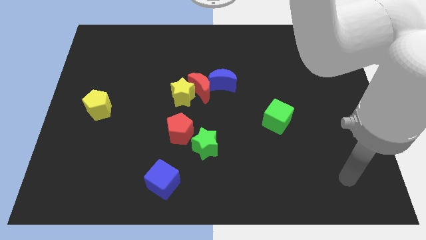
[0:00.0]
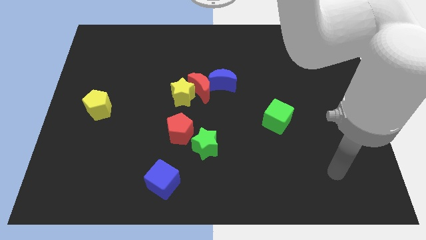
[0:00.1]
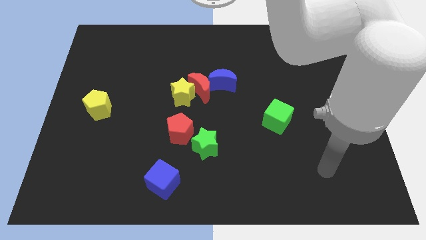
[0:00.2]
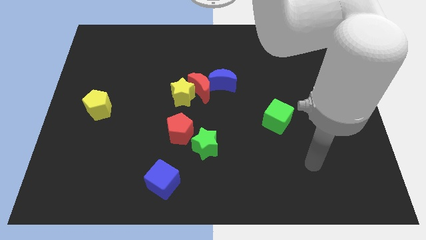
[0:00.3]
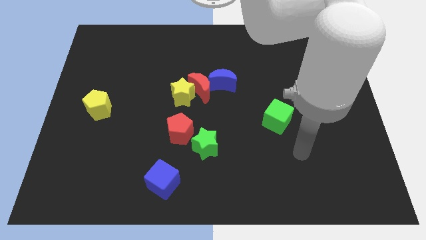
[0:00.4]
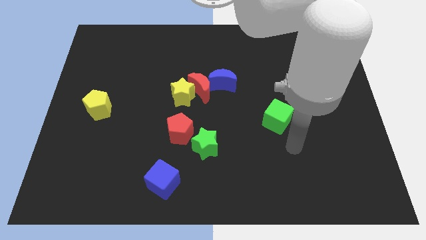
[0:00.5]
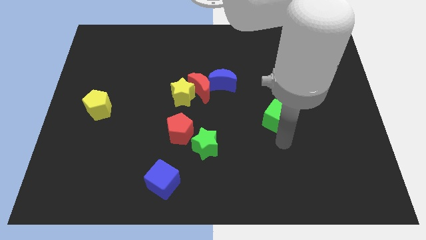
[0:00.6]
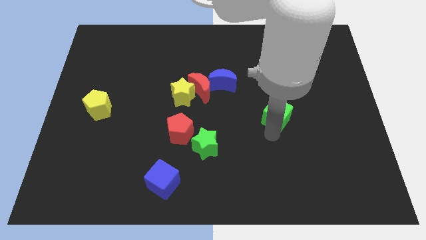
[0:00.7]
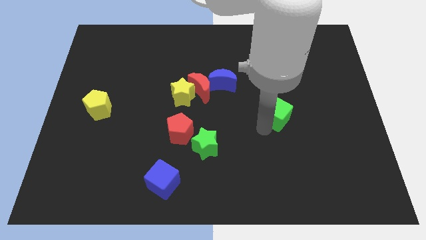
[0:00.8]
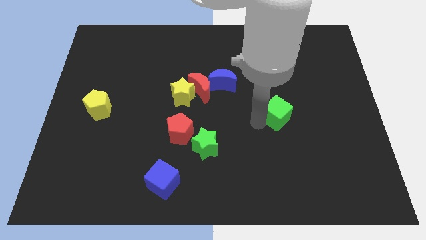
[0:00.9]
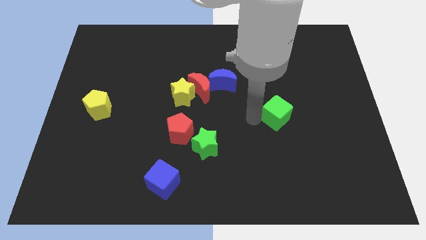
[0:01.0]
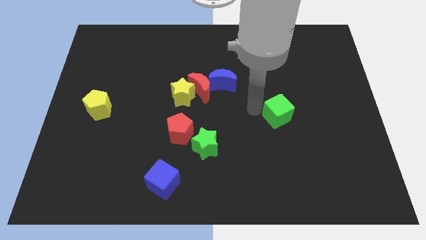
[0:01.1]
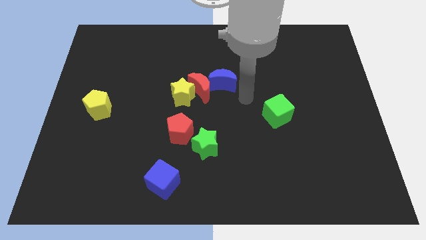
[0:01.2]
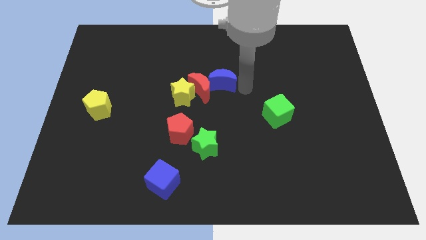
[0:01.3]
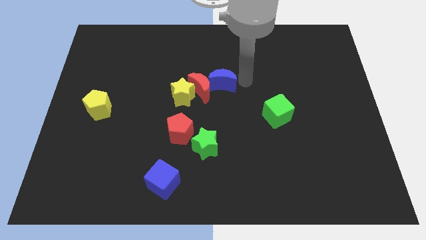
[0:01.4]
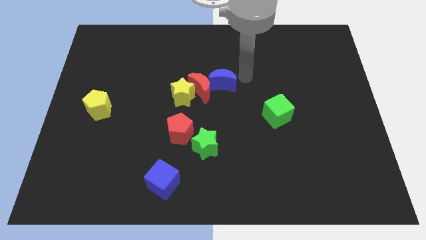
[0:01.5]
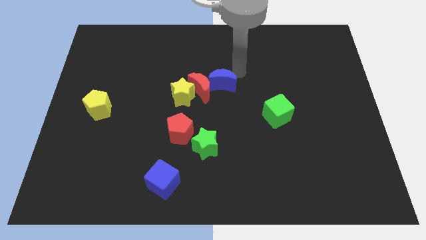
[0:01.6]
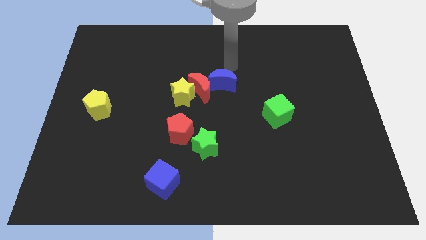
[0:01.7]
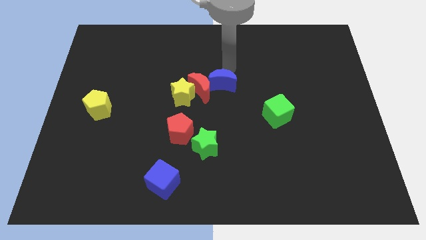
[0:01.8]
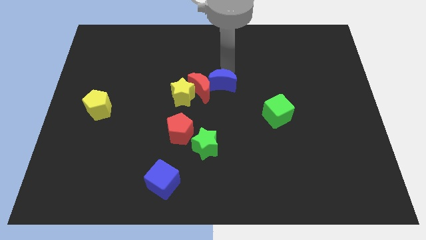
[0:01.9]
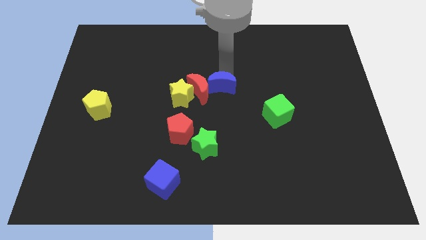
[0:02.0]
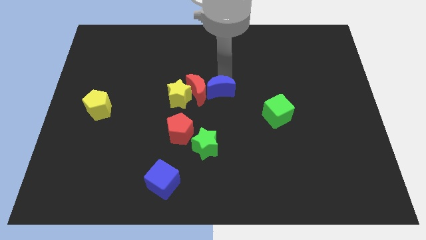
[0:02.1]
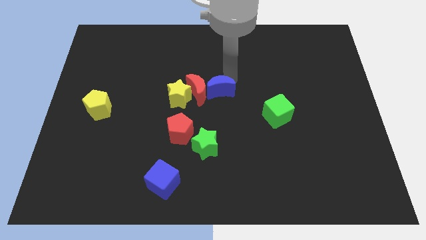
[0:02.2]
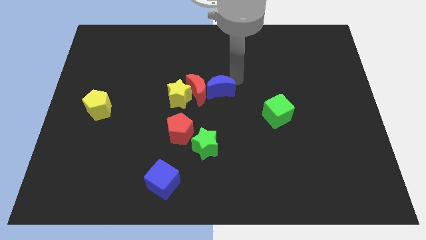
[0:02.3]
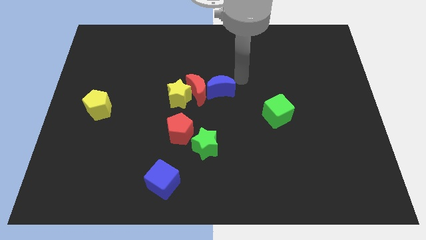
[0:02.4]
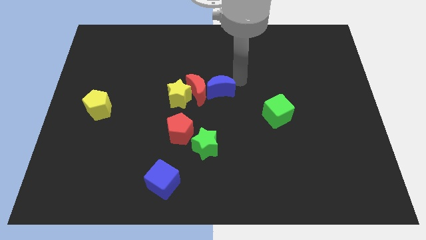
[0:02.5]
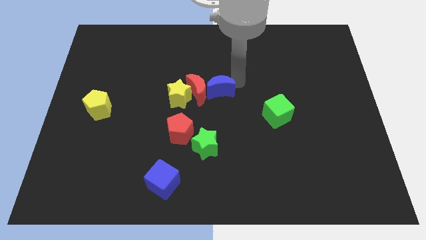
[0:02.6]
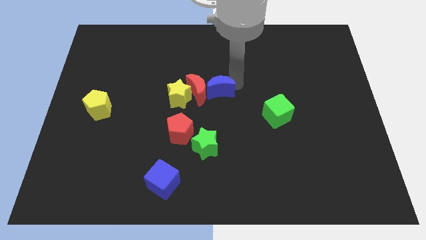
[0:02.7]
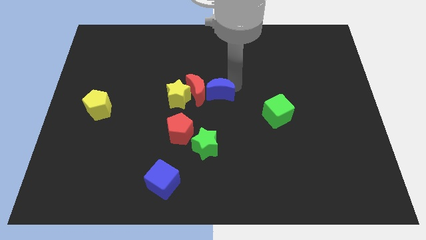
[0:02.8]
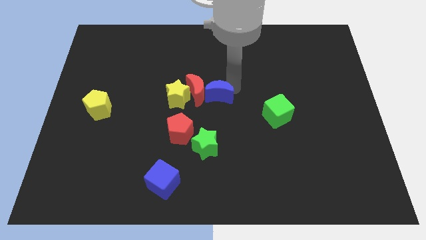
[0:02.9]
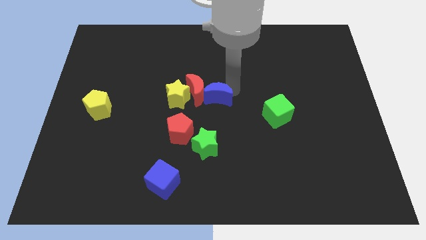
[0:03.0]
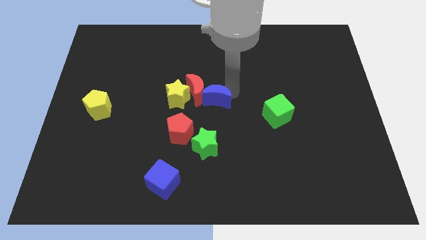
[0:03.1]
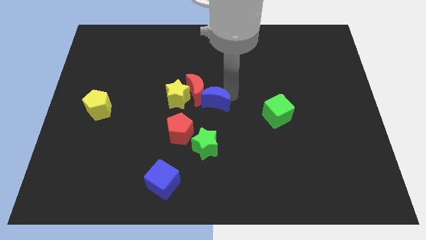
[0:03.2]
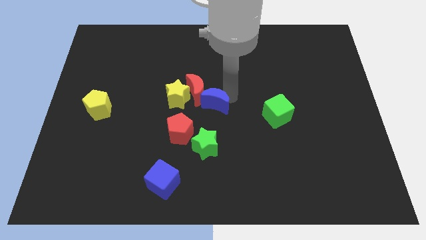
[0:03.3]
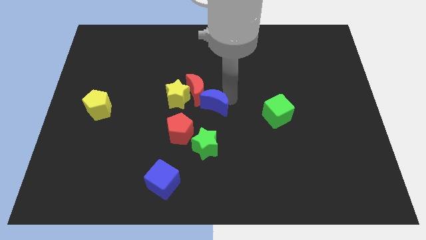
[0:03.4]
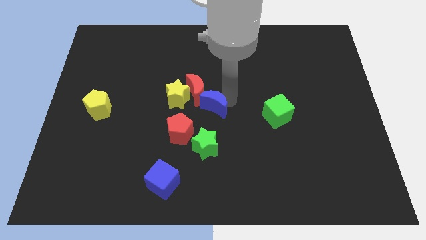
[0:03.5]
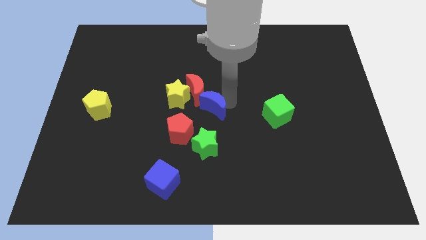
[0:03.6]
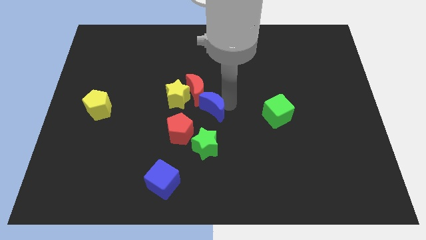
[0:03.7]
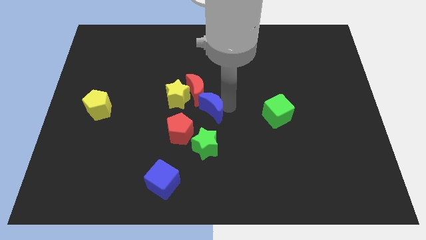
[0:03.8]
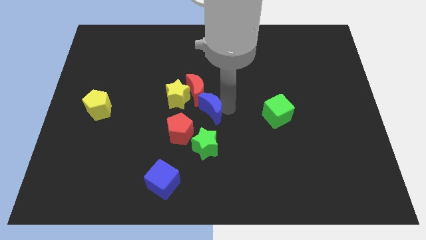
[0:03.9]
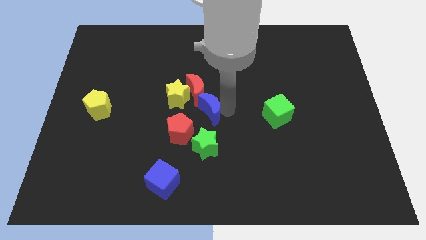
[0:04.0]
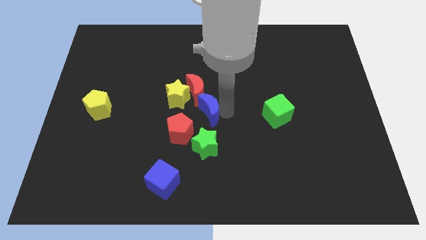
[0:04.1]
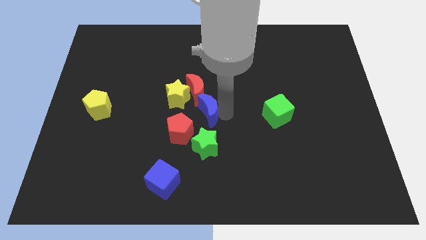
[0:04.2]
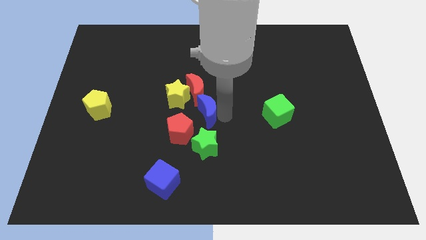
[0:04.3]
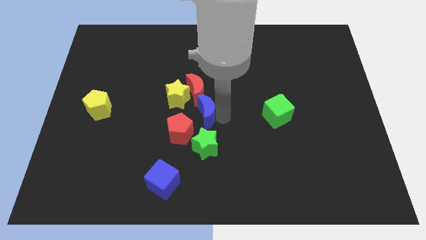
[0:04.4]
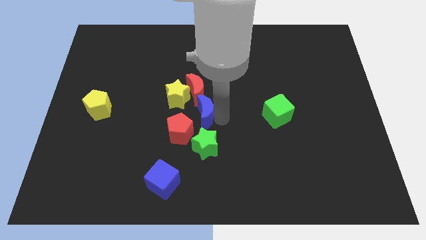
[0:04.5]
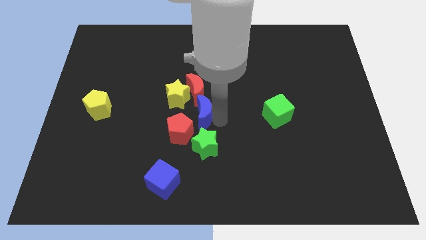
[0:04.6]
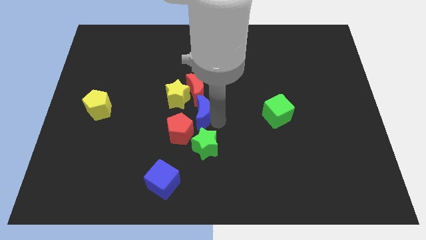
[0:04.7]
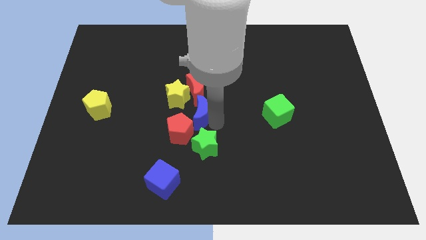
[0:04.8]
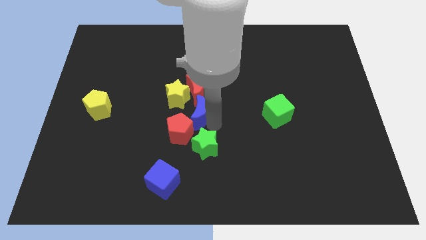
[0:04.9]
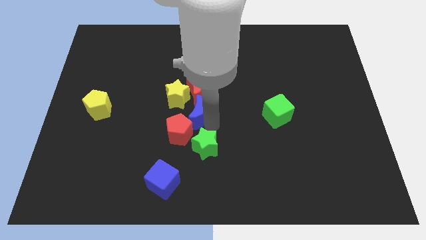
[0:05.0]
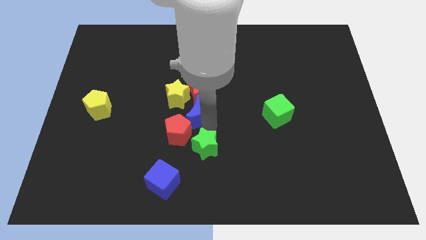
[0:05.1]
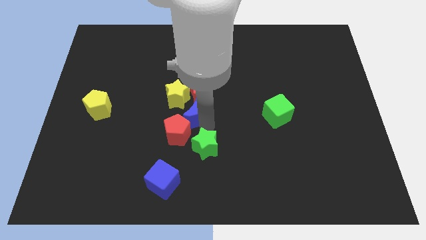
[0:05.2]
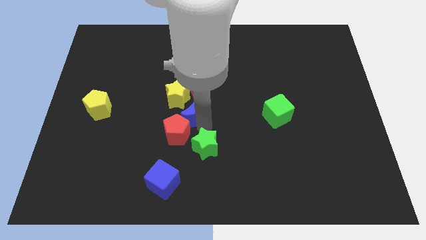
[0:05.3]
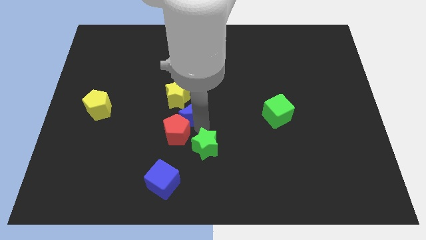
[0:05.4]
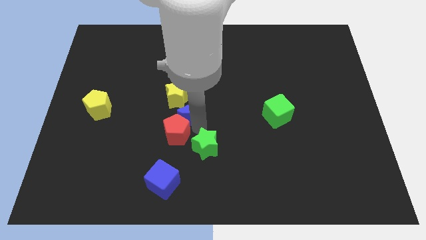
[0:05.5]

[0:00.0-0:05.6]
put the blue moon towards the yellow star

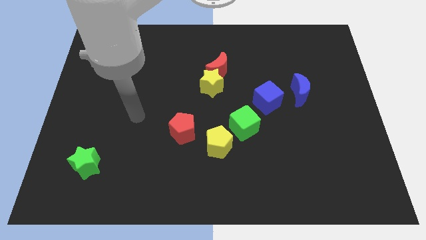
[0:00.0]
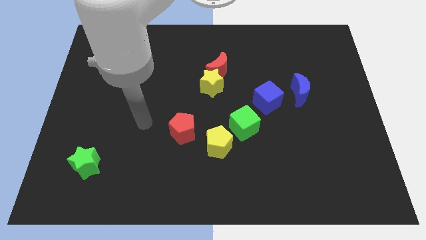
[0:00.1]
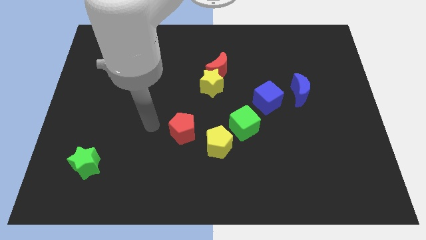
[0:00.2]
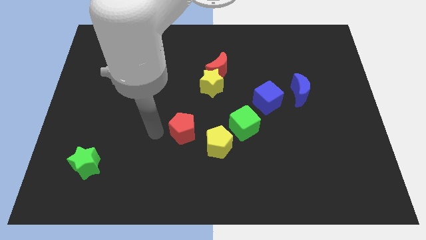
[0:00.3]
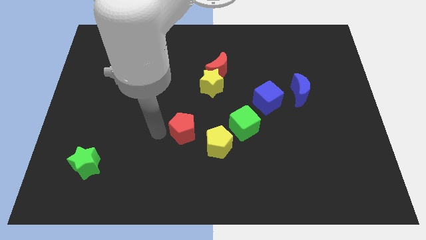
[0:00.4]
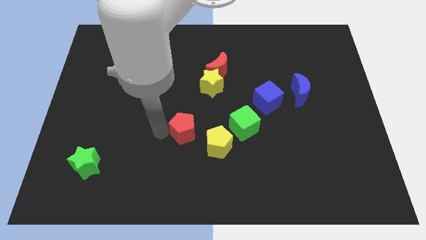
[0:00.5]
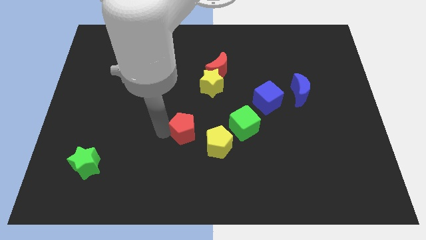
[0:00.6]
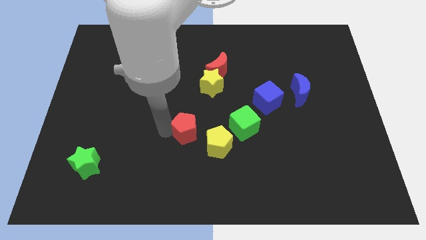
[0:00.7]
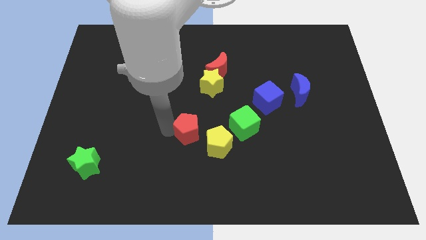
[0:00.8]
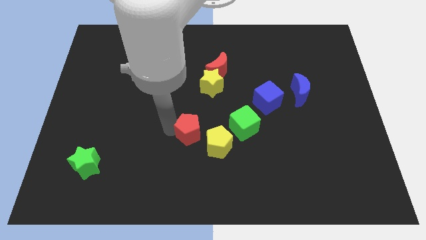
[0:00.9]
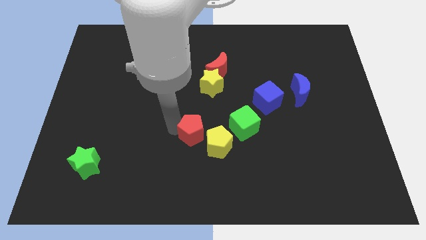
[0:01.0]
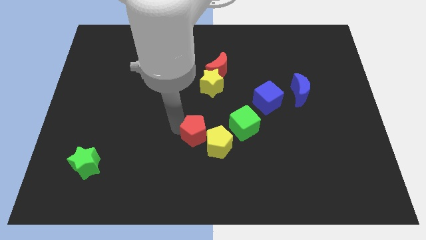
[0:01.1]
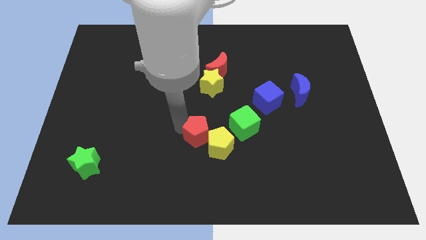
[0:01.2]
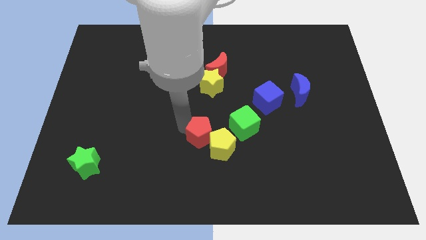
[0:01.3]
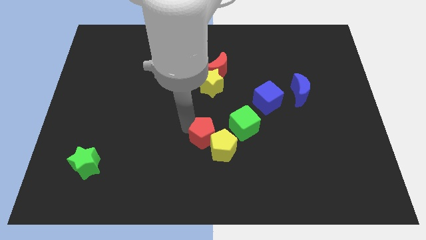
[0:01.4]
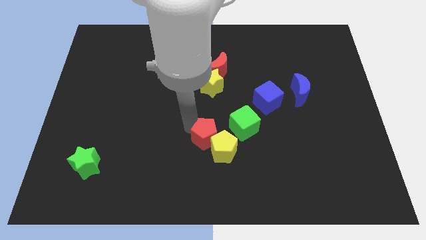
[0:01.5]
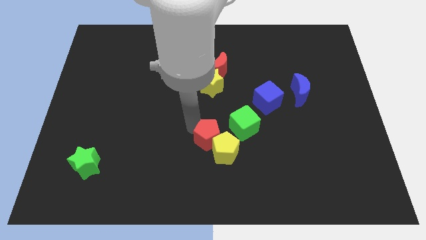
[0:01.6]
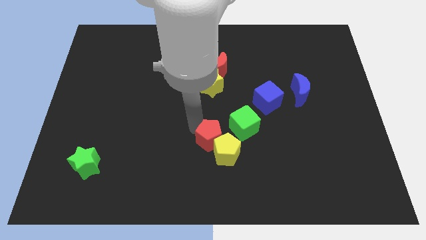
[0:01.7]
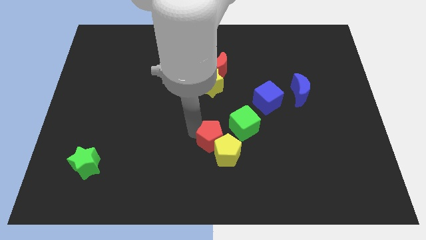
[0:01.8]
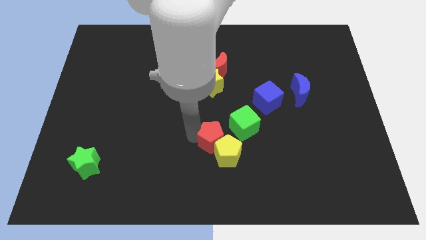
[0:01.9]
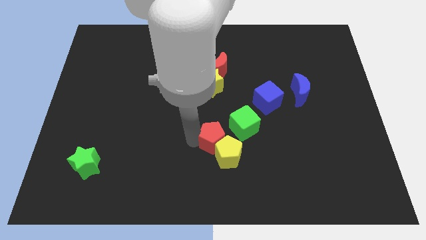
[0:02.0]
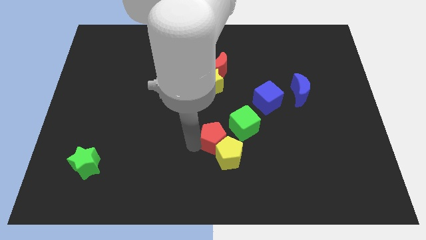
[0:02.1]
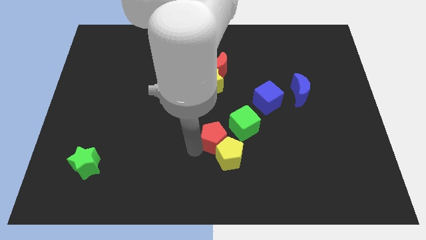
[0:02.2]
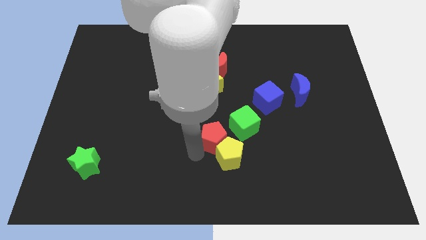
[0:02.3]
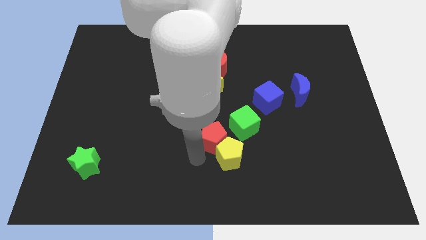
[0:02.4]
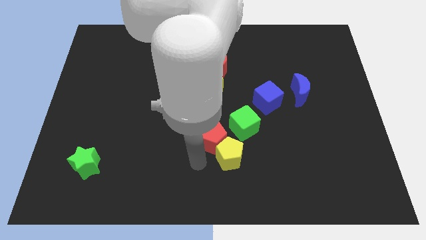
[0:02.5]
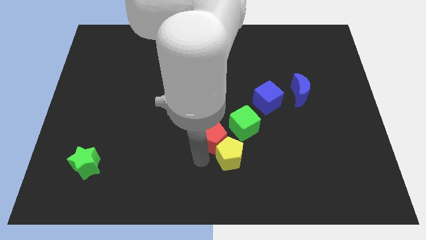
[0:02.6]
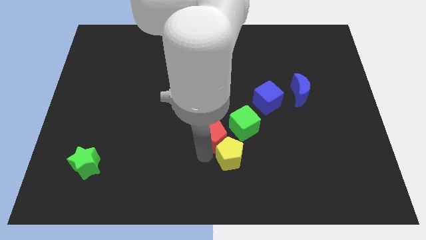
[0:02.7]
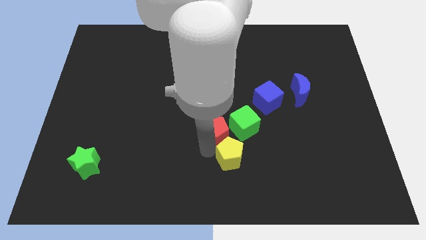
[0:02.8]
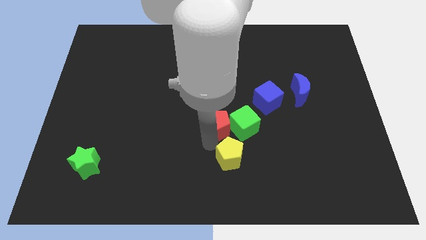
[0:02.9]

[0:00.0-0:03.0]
push the red pentagon towards the green cube
